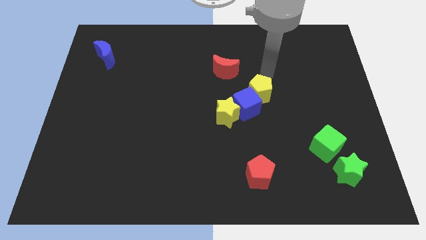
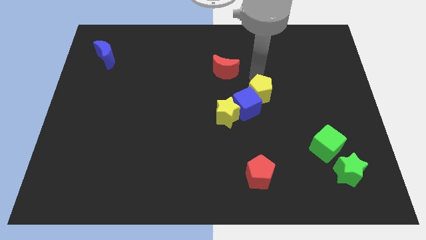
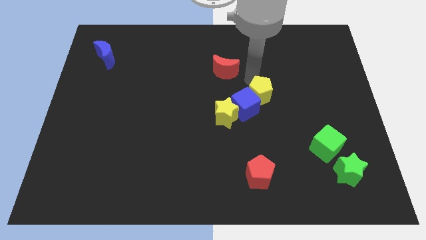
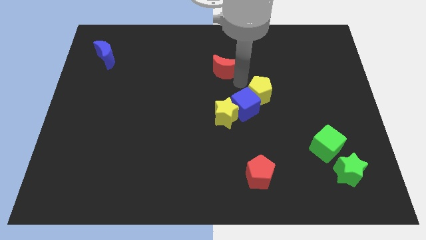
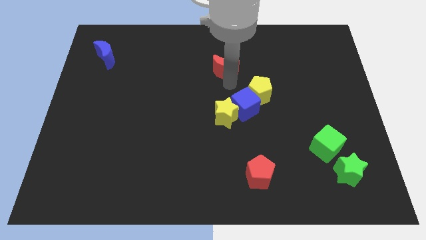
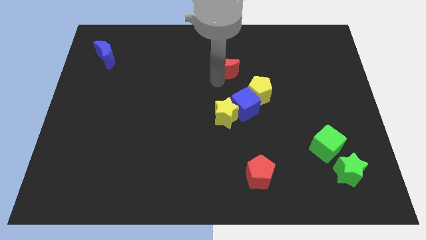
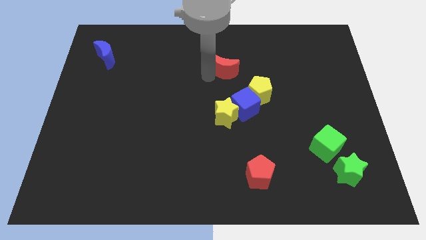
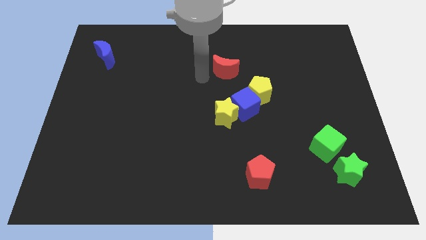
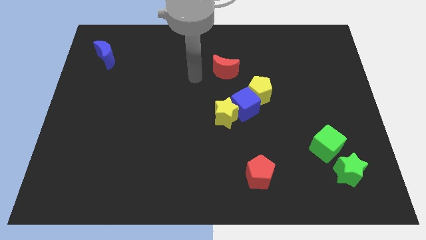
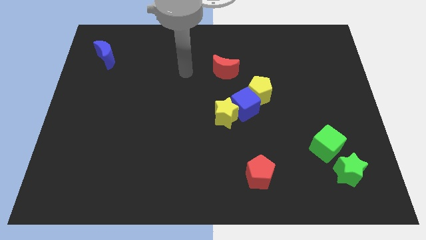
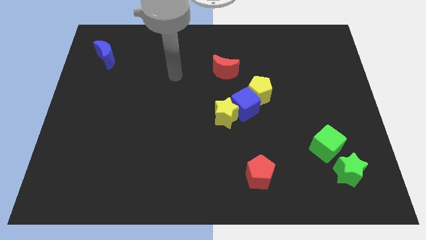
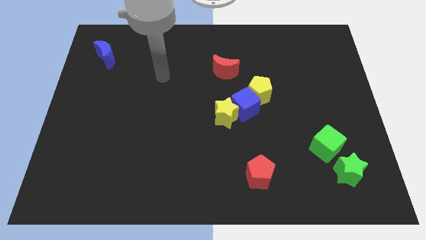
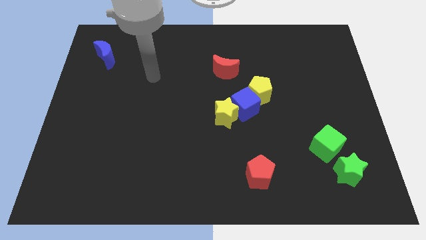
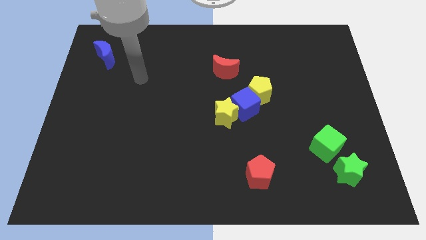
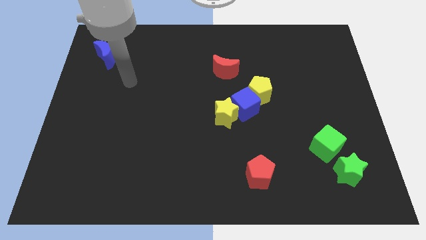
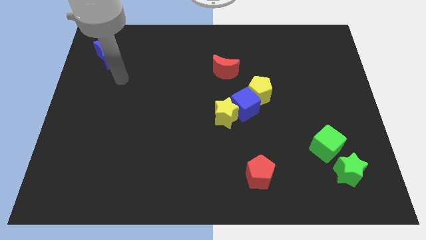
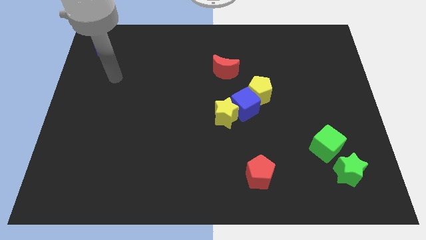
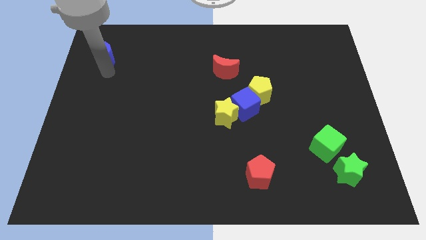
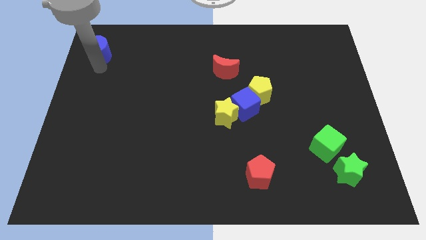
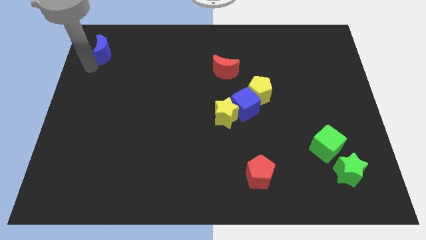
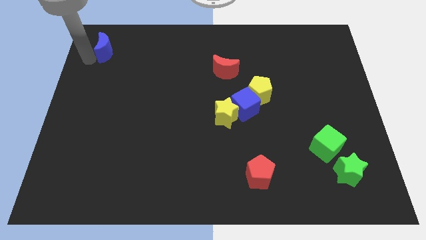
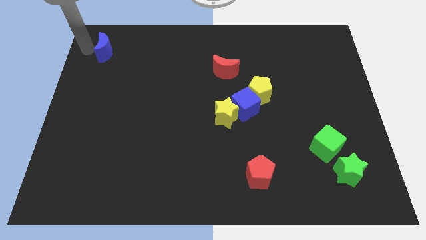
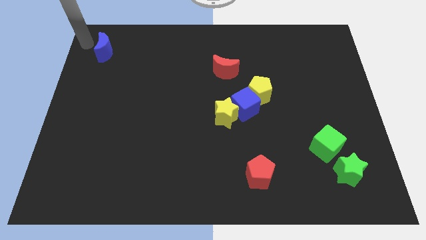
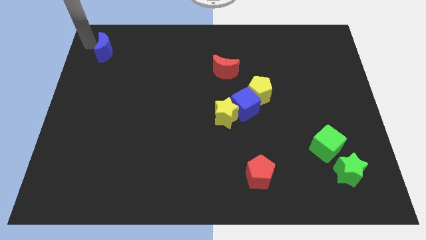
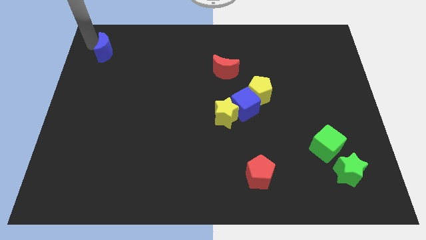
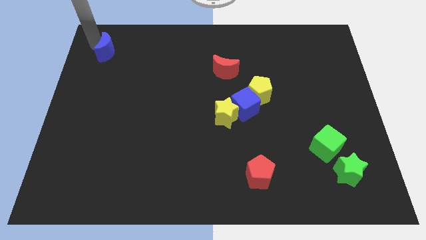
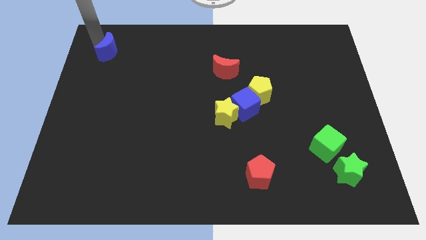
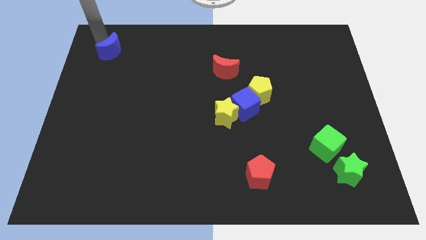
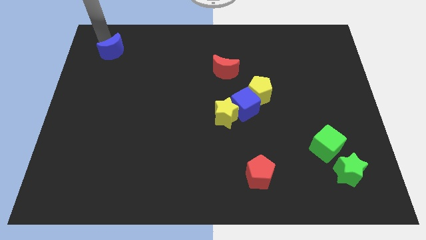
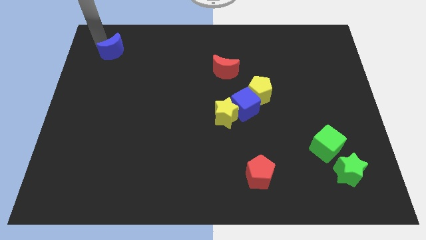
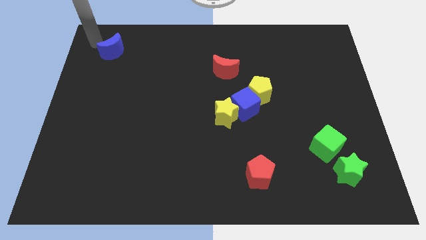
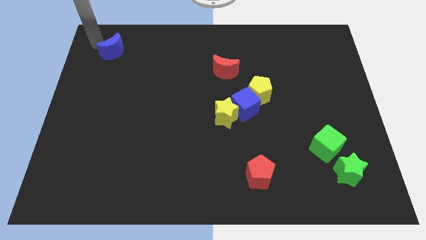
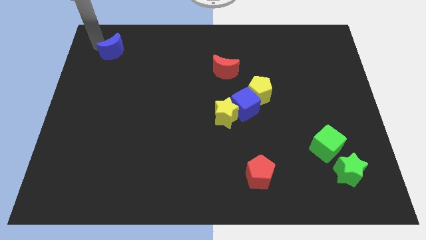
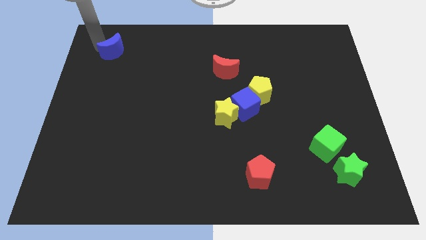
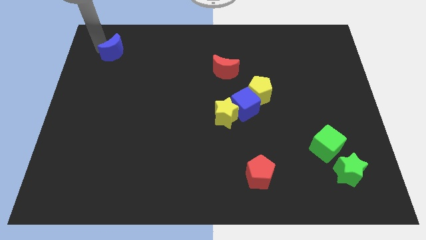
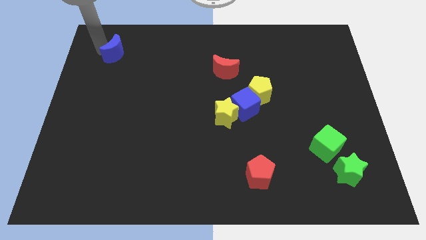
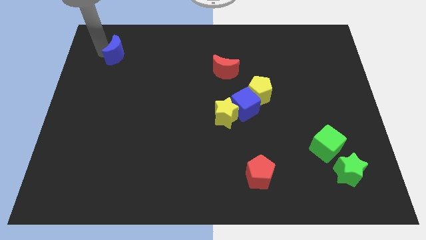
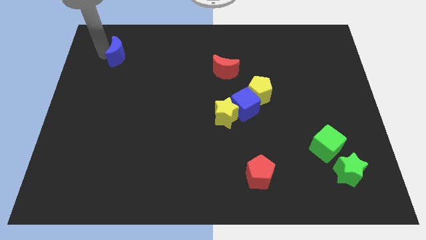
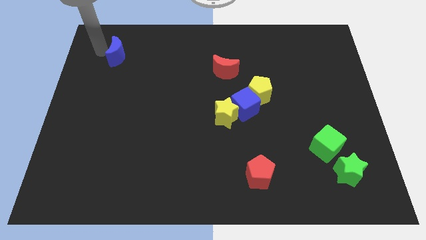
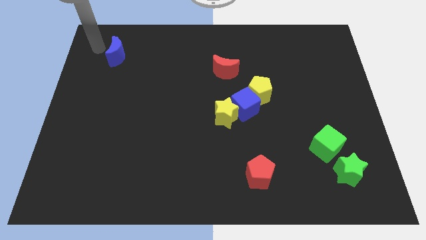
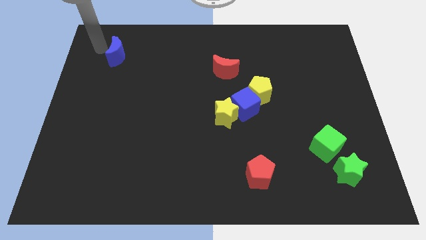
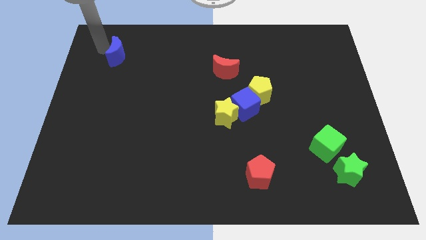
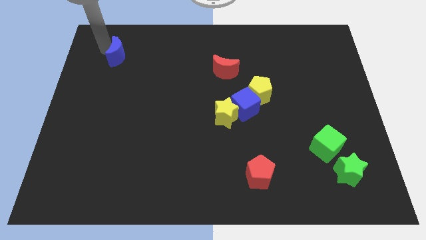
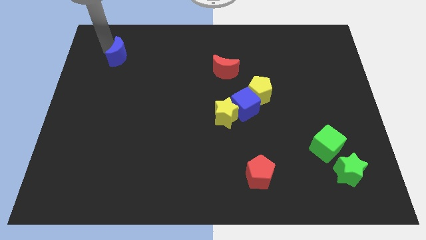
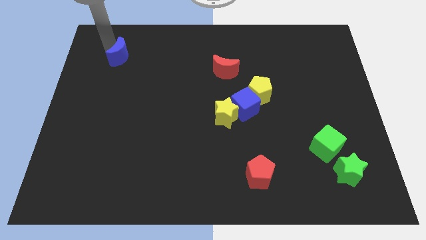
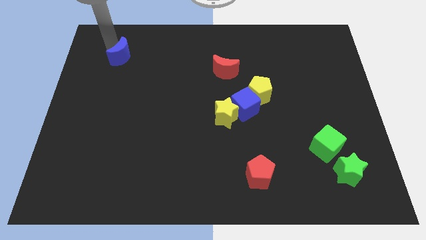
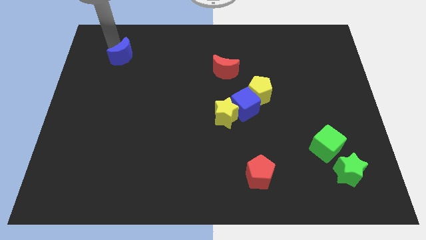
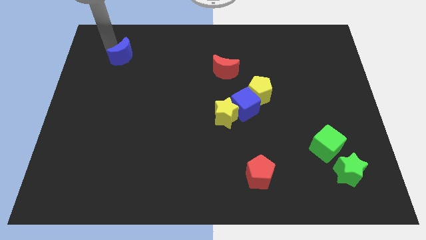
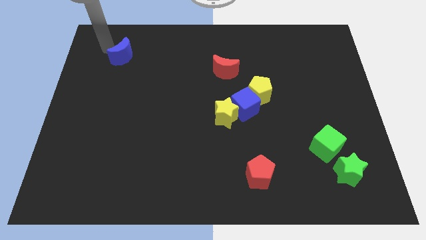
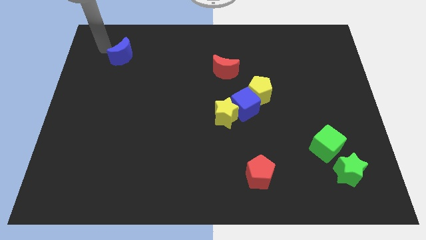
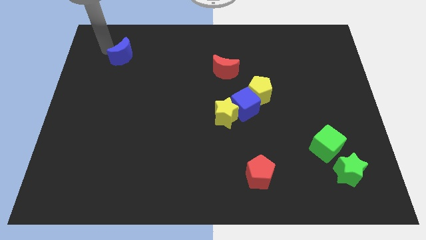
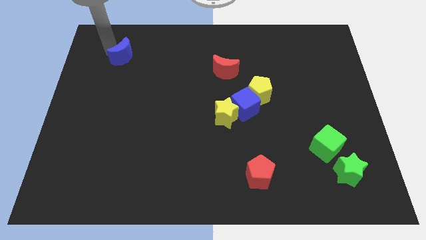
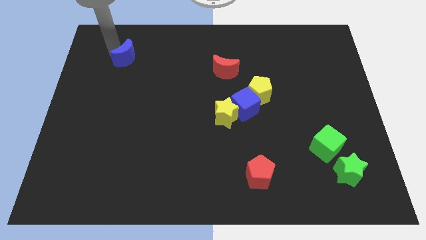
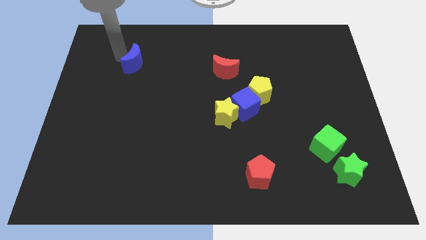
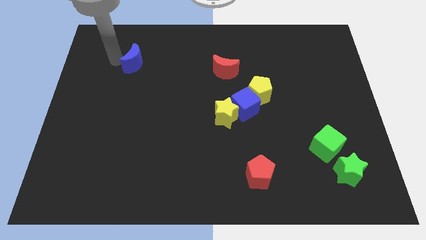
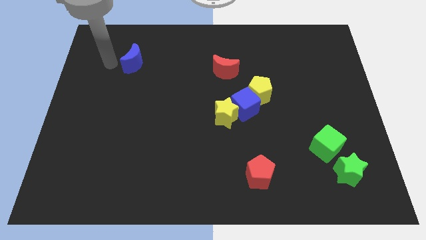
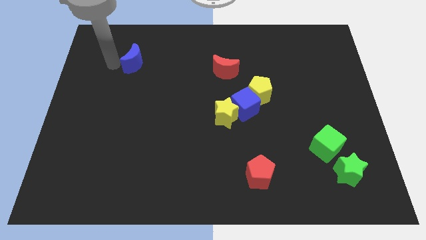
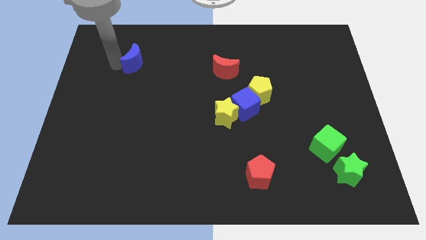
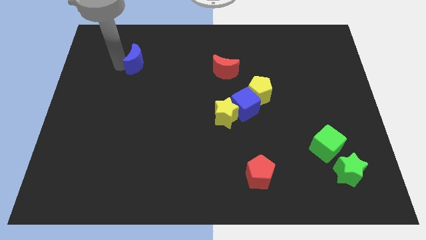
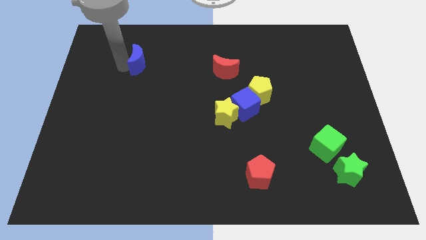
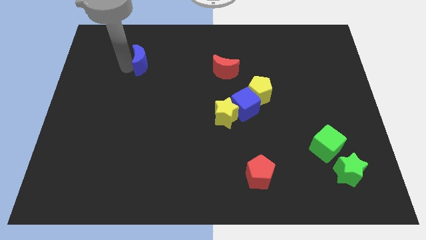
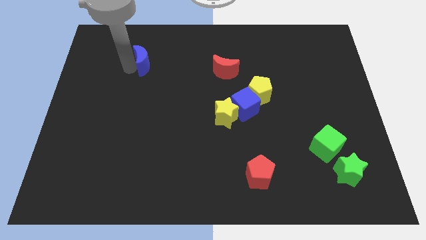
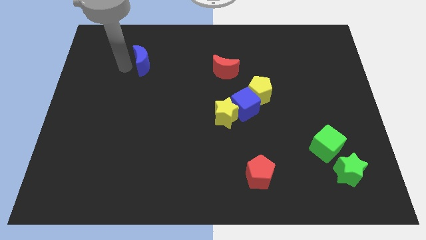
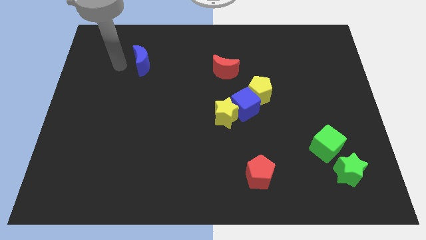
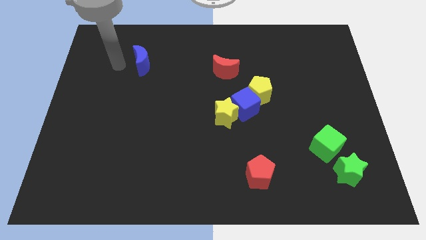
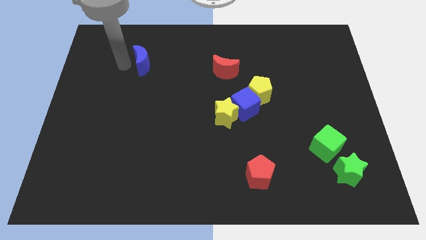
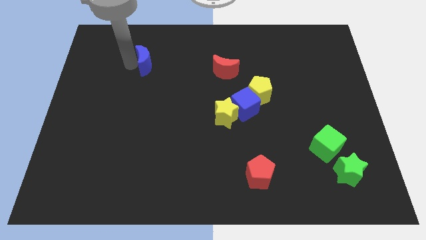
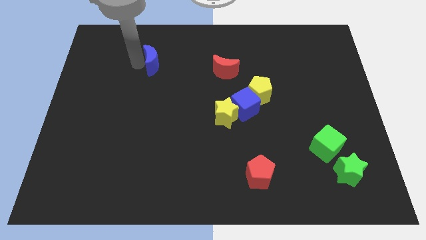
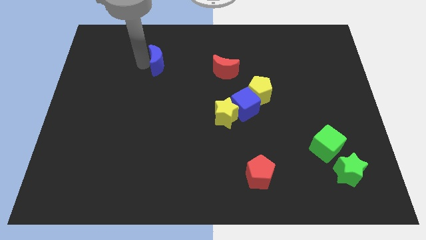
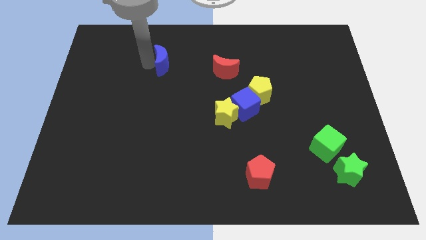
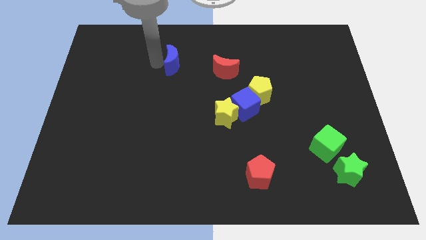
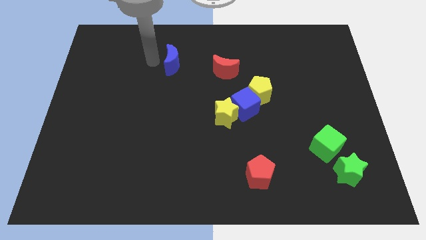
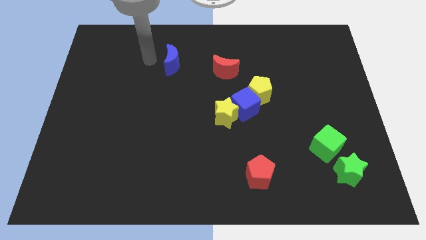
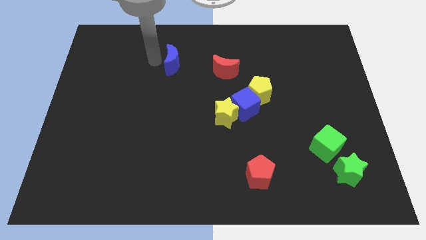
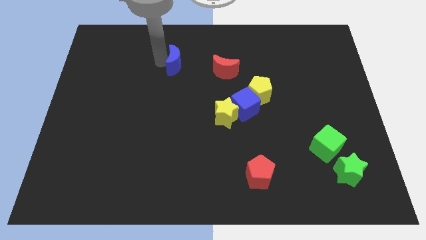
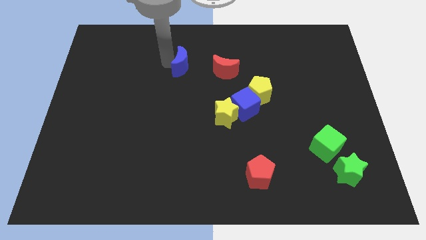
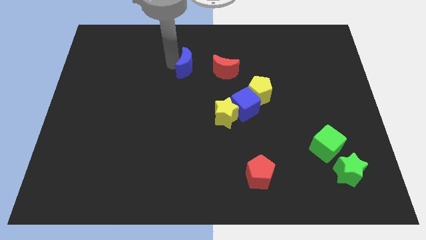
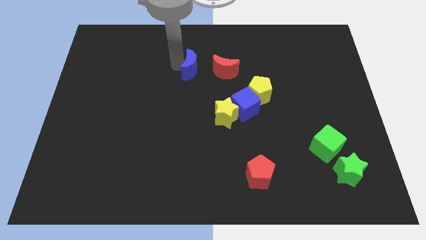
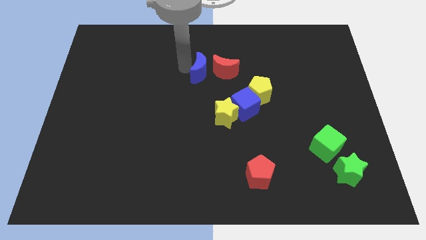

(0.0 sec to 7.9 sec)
put the blue moon to the red moon
